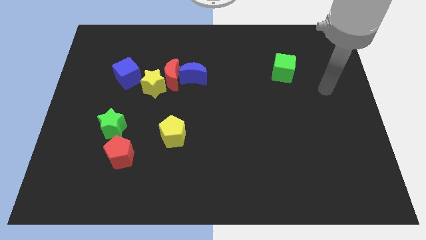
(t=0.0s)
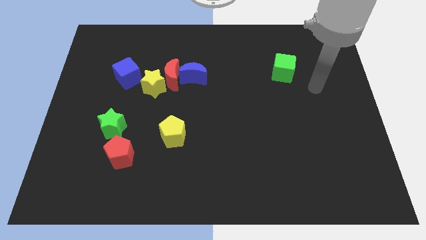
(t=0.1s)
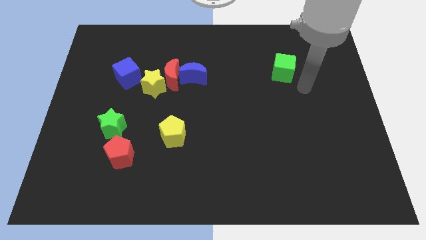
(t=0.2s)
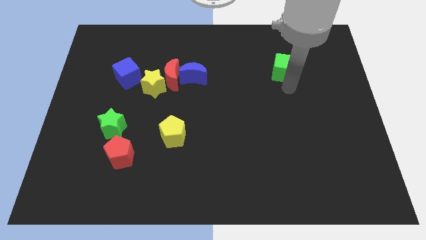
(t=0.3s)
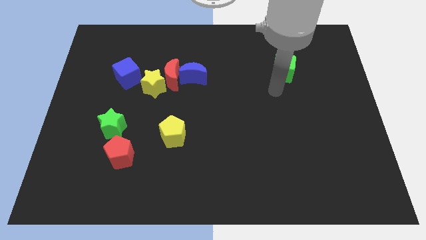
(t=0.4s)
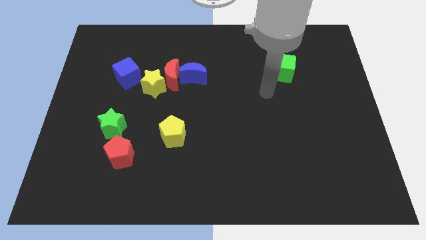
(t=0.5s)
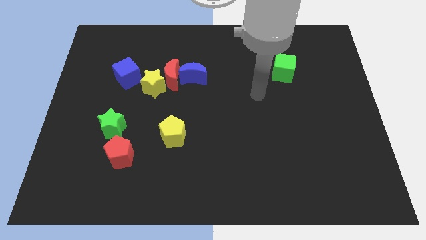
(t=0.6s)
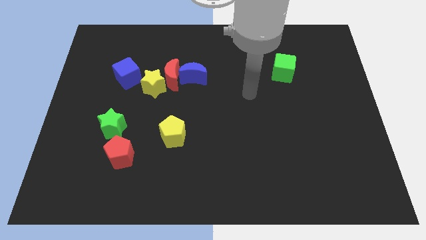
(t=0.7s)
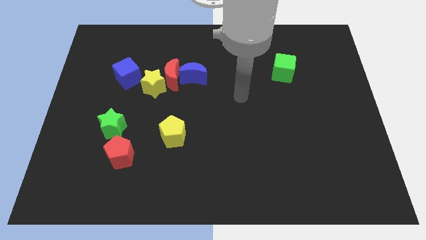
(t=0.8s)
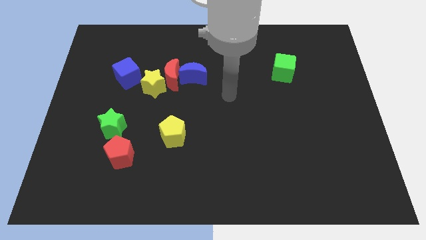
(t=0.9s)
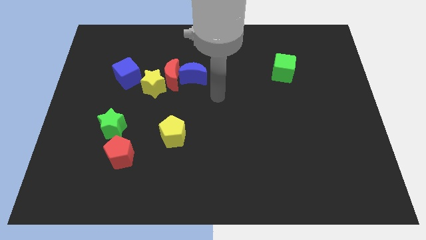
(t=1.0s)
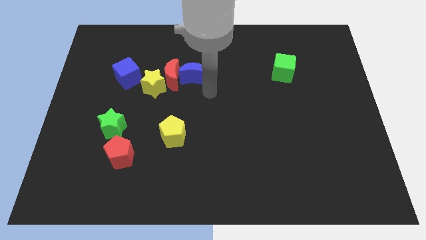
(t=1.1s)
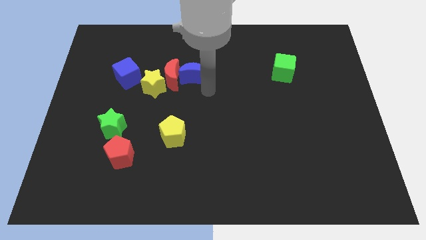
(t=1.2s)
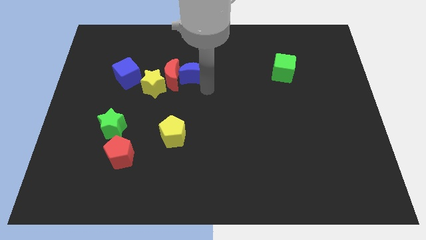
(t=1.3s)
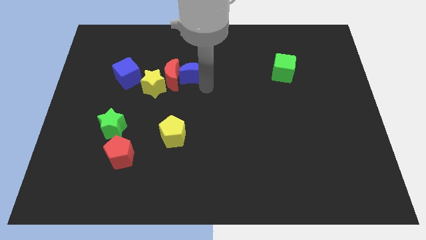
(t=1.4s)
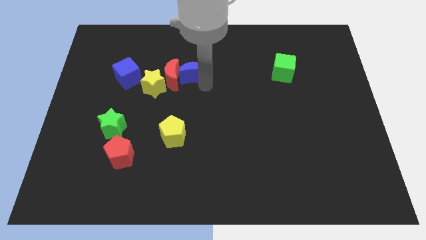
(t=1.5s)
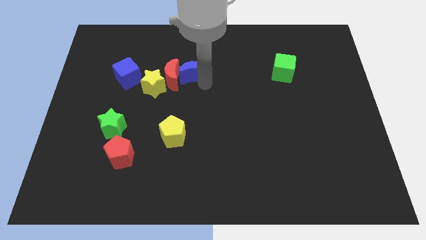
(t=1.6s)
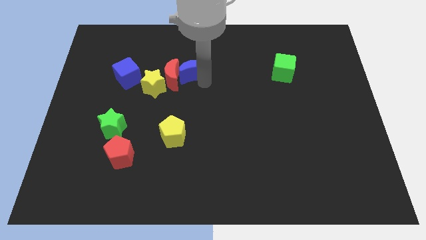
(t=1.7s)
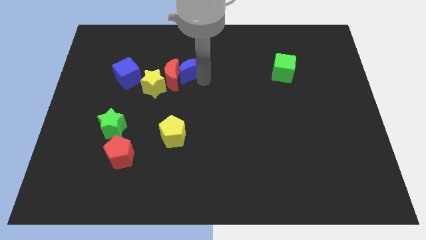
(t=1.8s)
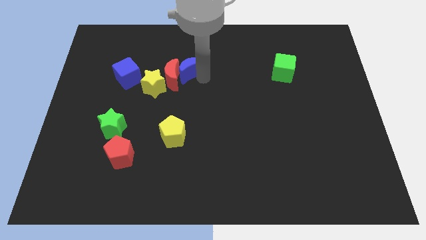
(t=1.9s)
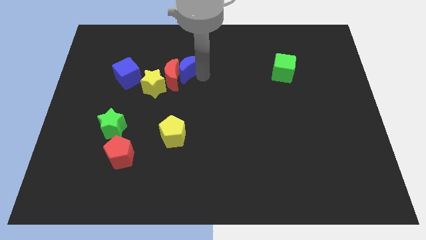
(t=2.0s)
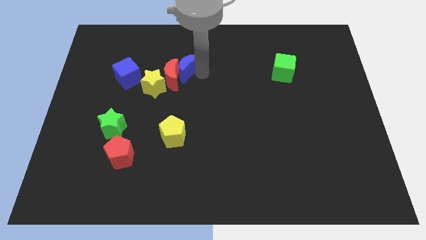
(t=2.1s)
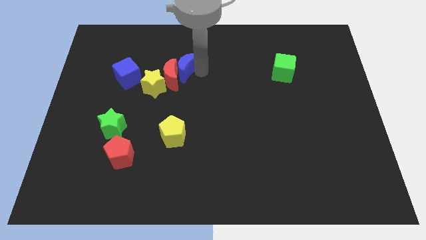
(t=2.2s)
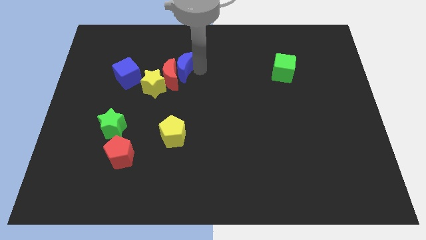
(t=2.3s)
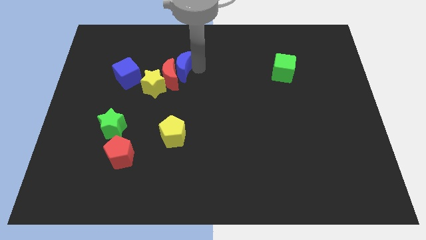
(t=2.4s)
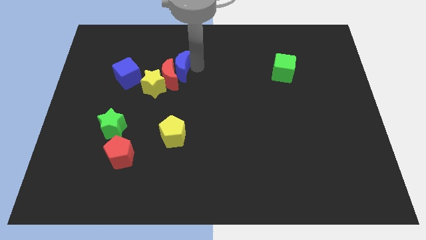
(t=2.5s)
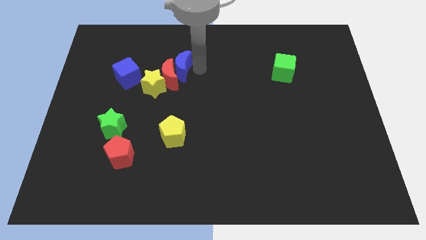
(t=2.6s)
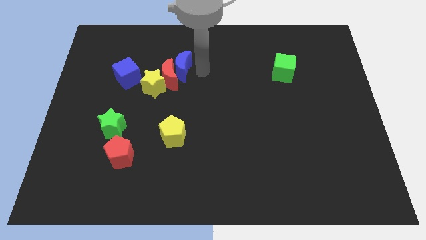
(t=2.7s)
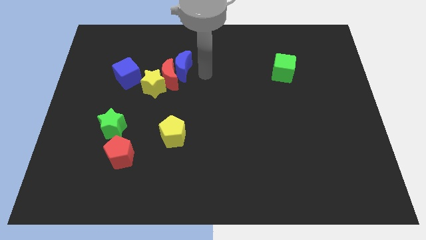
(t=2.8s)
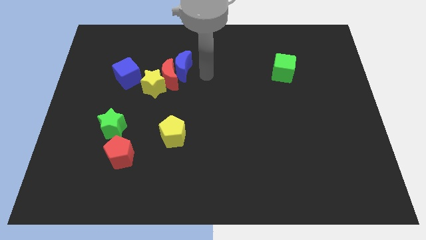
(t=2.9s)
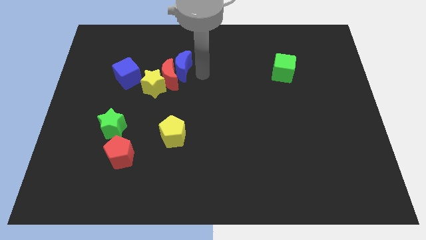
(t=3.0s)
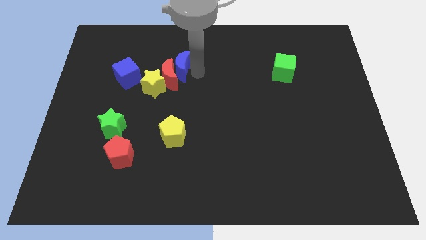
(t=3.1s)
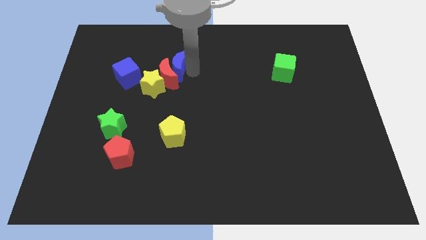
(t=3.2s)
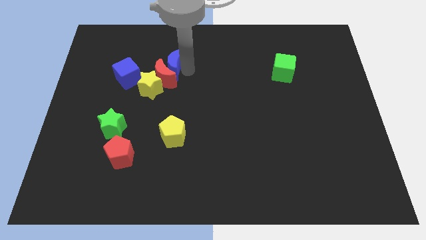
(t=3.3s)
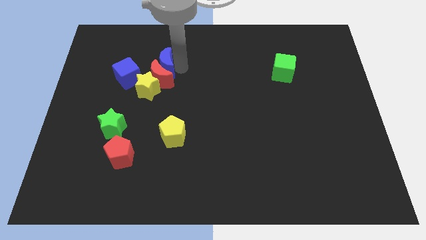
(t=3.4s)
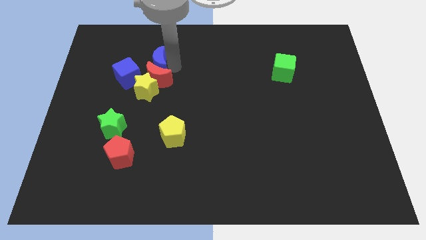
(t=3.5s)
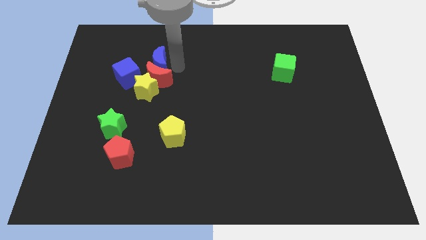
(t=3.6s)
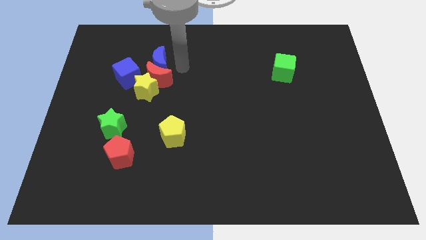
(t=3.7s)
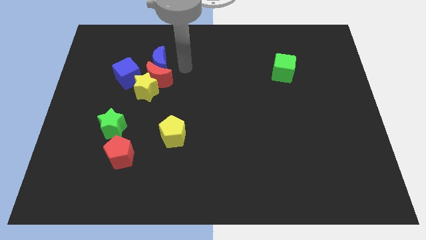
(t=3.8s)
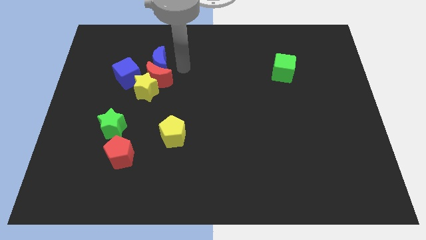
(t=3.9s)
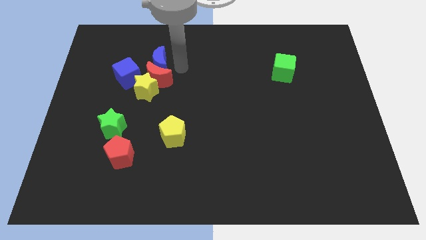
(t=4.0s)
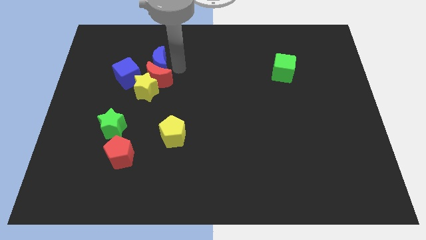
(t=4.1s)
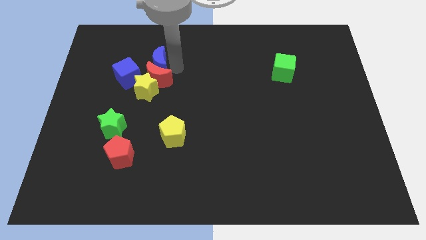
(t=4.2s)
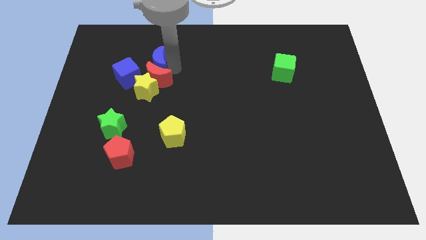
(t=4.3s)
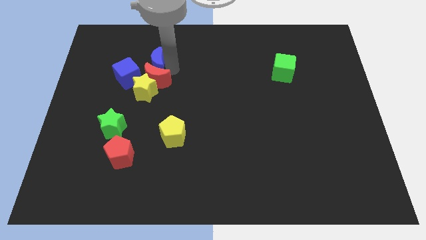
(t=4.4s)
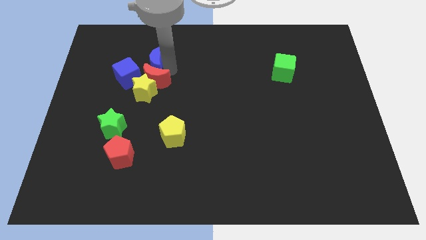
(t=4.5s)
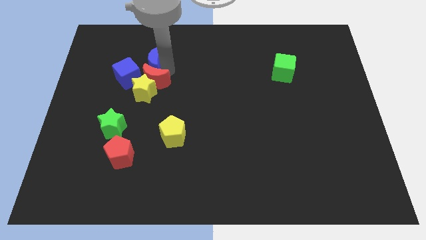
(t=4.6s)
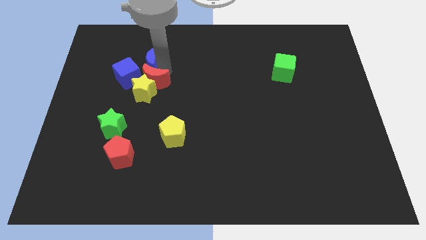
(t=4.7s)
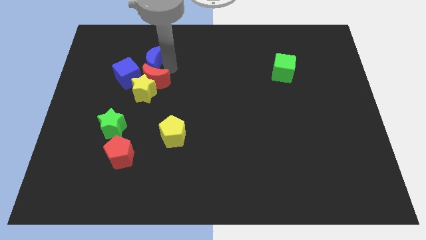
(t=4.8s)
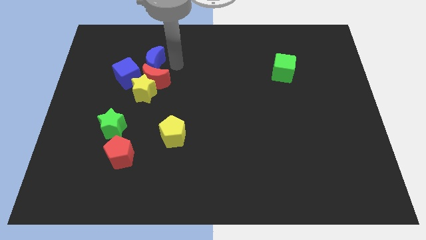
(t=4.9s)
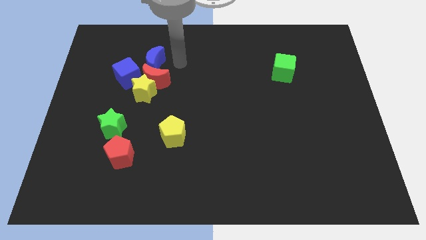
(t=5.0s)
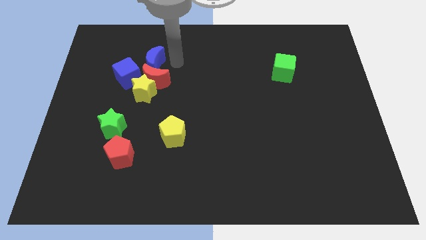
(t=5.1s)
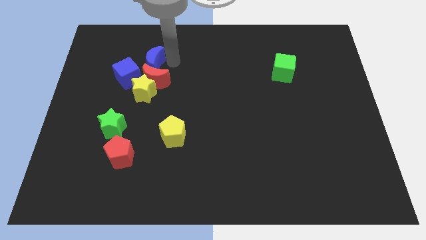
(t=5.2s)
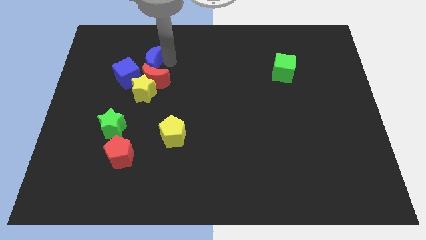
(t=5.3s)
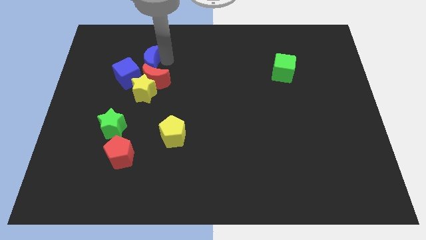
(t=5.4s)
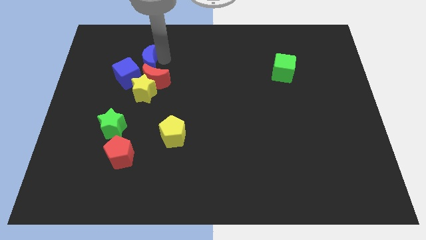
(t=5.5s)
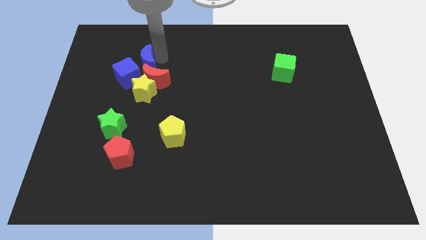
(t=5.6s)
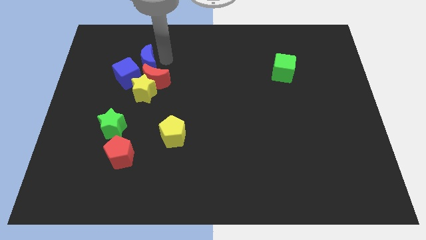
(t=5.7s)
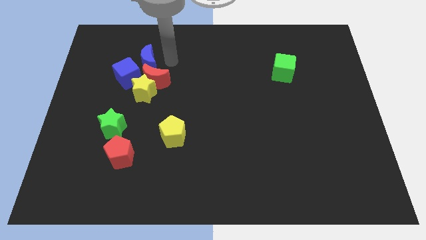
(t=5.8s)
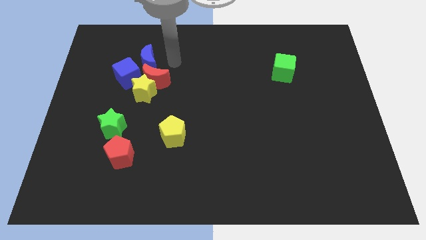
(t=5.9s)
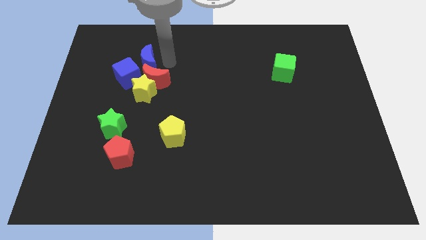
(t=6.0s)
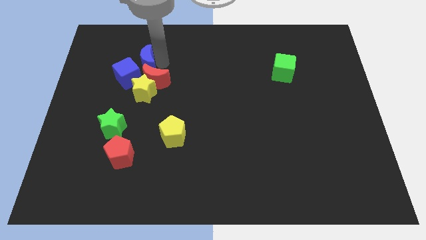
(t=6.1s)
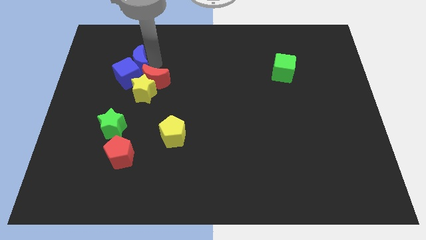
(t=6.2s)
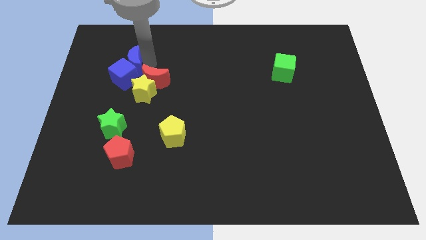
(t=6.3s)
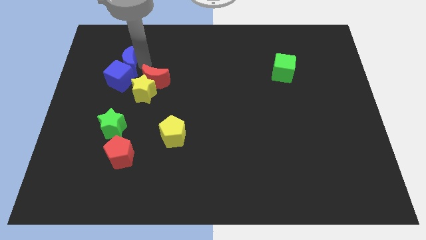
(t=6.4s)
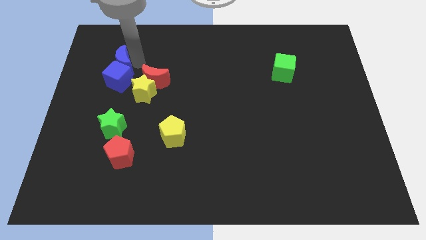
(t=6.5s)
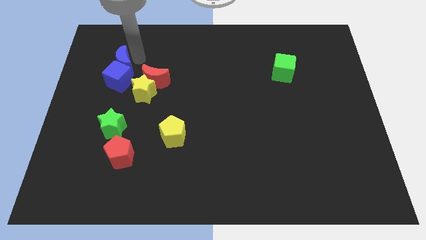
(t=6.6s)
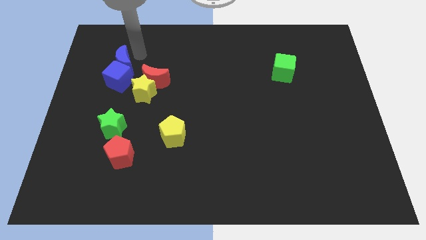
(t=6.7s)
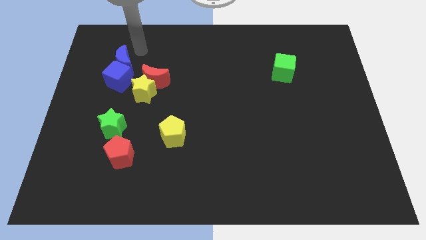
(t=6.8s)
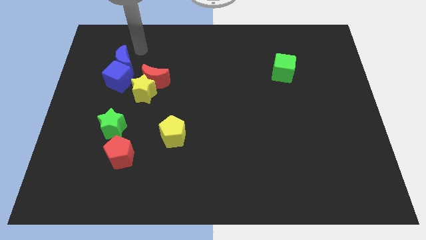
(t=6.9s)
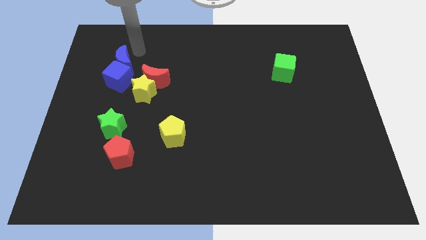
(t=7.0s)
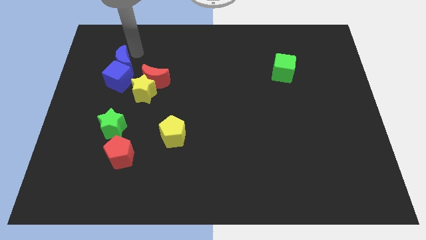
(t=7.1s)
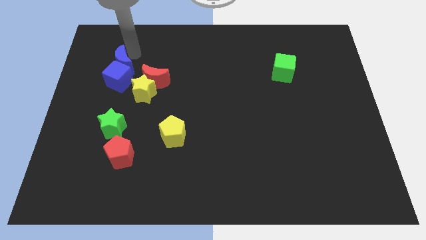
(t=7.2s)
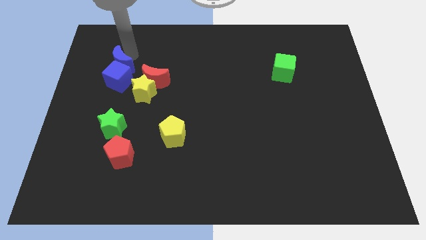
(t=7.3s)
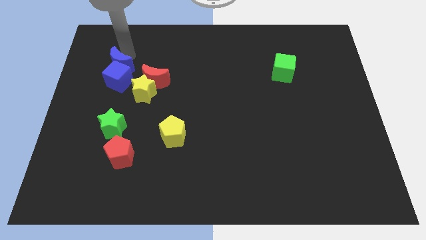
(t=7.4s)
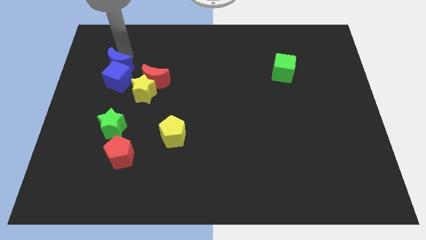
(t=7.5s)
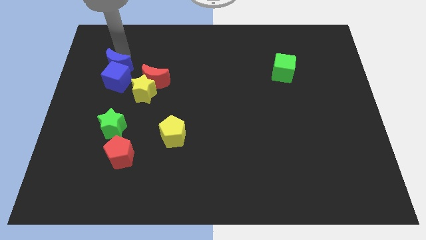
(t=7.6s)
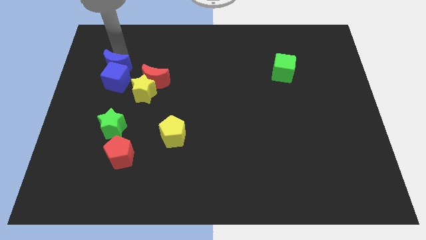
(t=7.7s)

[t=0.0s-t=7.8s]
slide the blue moon to the left side of the red moon
